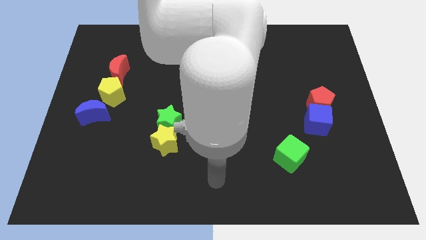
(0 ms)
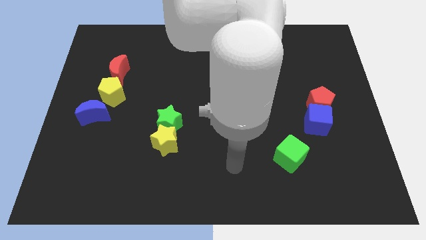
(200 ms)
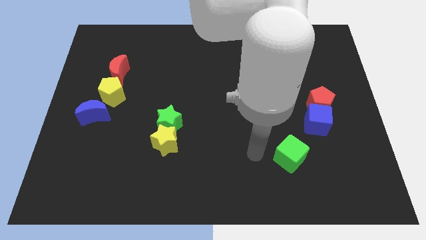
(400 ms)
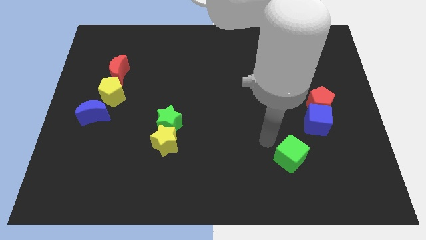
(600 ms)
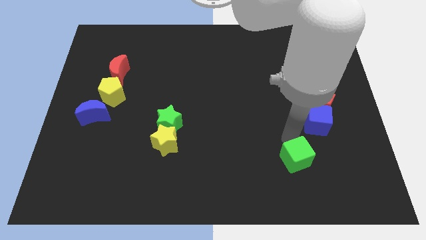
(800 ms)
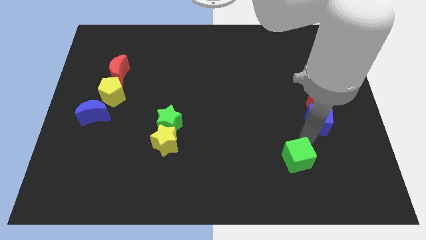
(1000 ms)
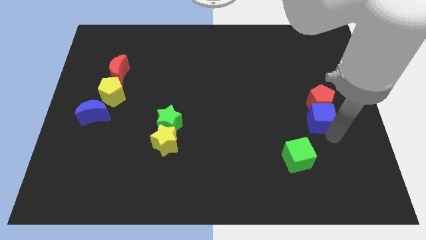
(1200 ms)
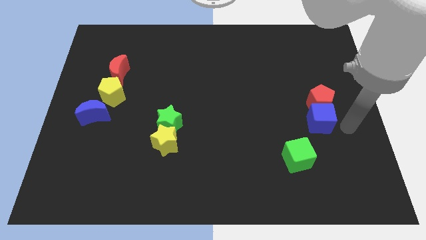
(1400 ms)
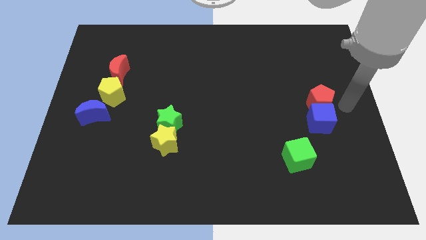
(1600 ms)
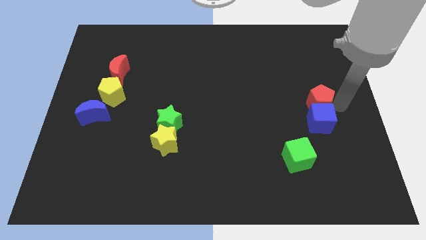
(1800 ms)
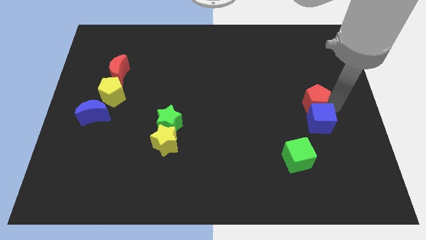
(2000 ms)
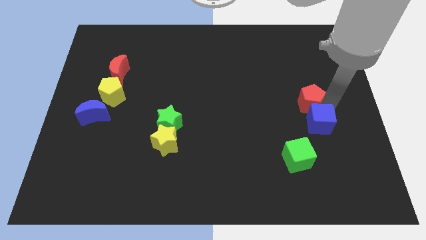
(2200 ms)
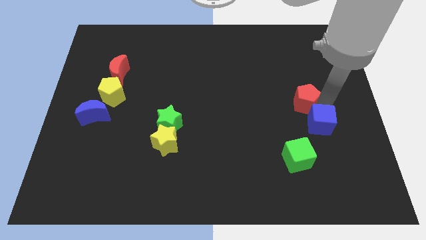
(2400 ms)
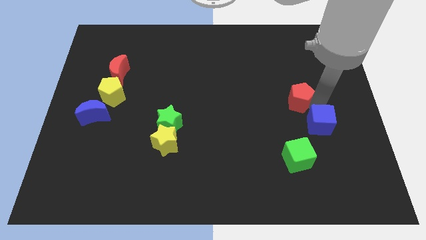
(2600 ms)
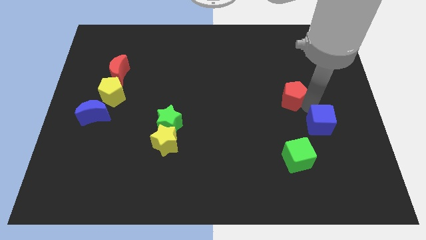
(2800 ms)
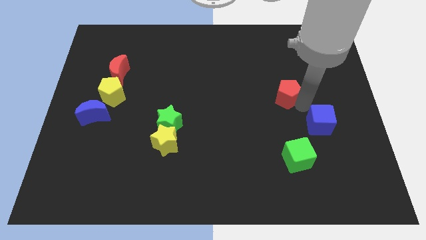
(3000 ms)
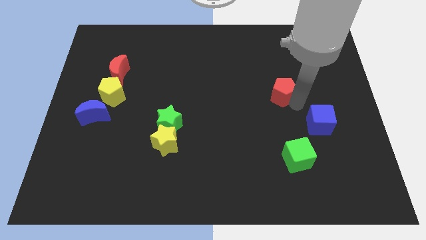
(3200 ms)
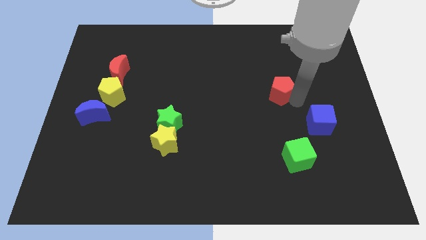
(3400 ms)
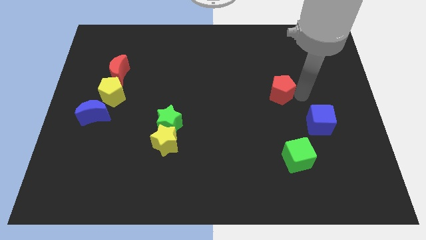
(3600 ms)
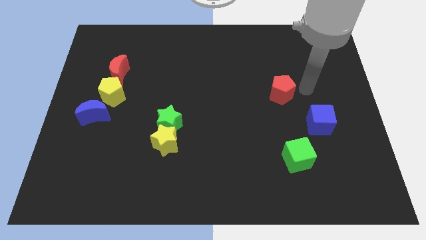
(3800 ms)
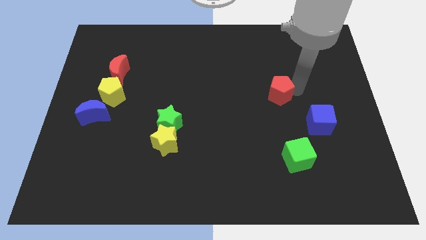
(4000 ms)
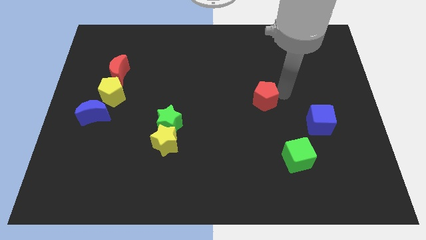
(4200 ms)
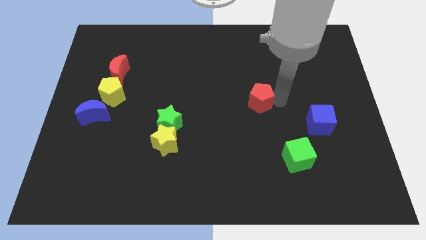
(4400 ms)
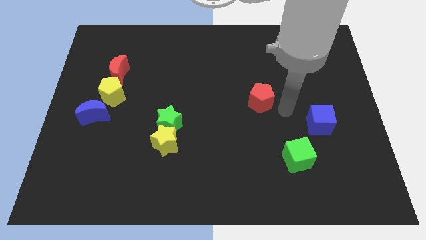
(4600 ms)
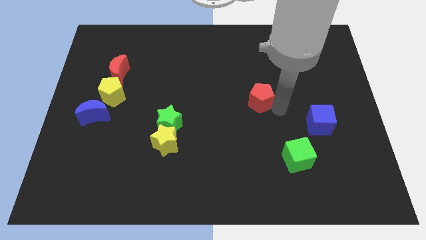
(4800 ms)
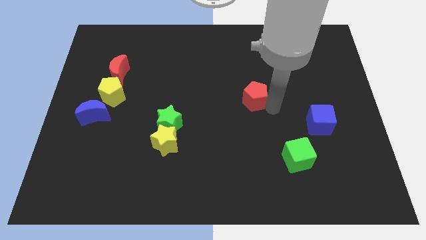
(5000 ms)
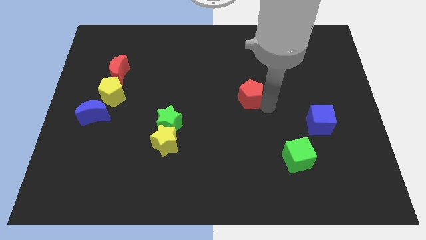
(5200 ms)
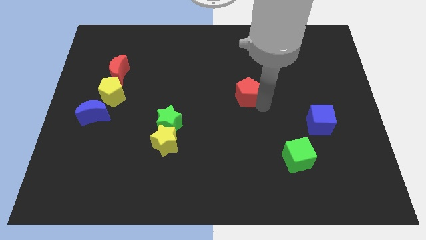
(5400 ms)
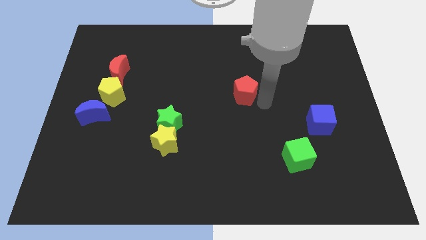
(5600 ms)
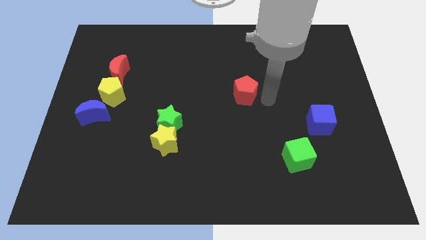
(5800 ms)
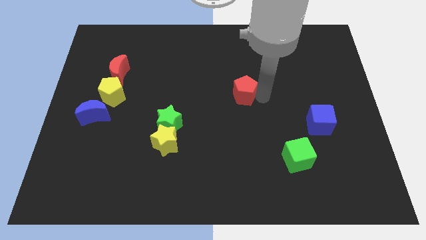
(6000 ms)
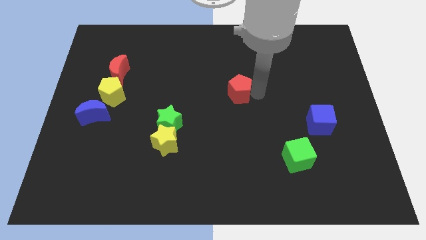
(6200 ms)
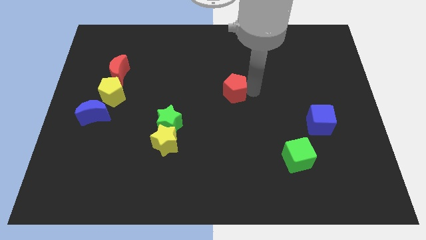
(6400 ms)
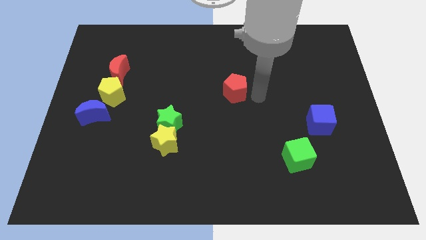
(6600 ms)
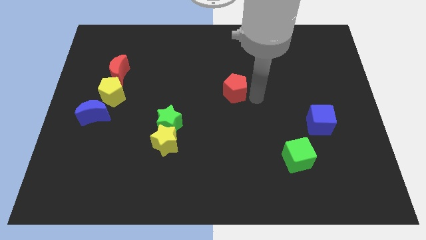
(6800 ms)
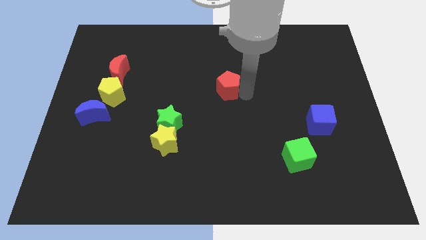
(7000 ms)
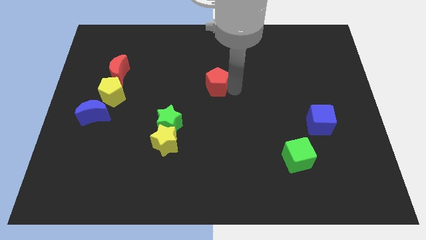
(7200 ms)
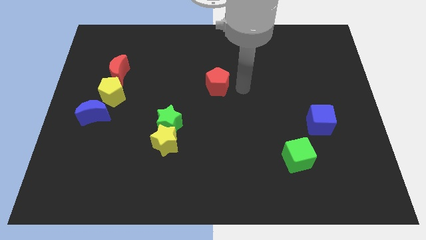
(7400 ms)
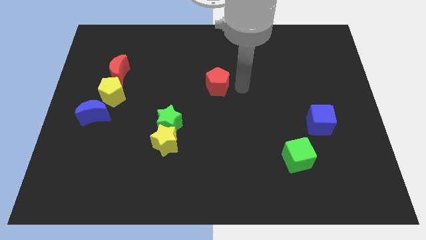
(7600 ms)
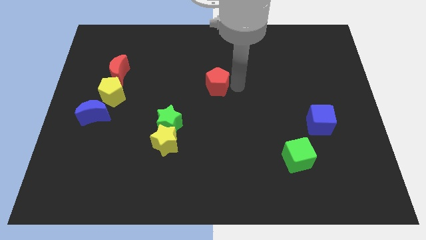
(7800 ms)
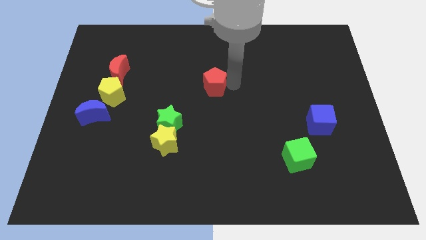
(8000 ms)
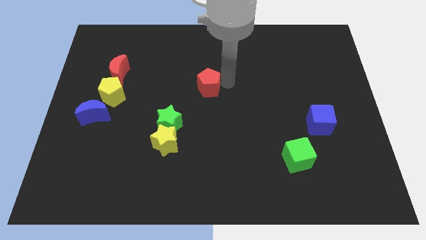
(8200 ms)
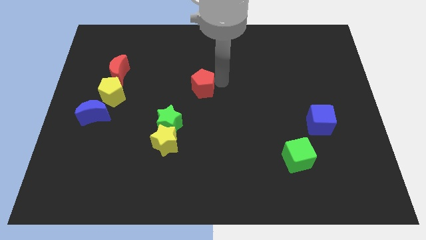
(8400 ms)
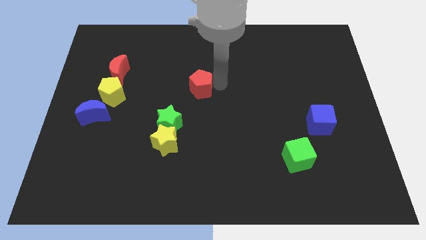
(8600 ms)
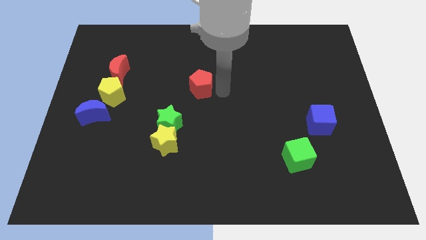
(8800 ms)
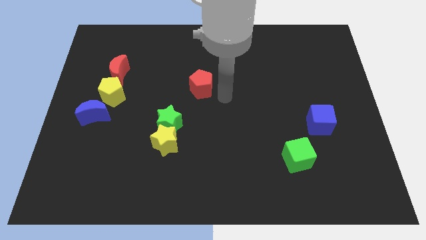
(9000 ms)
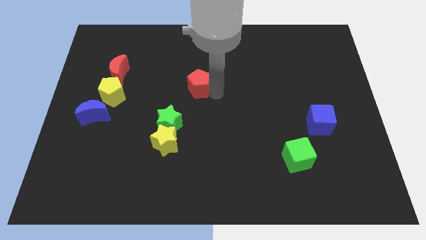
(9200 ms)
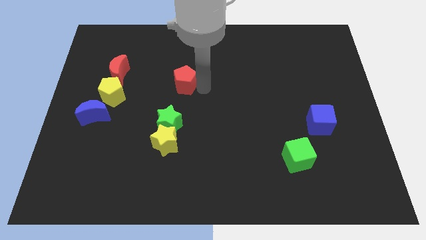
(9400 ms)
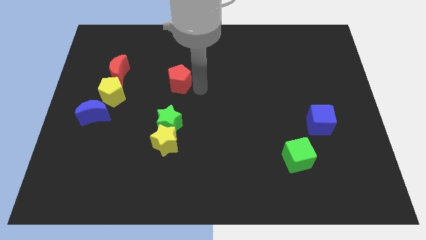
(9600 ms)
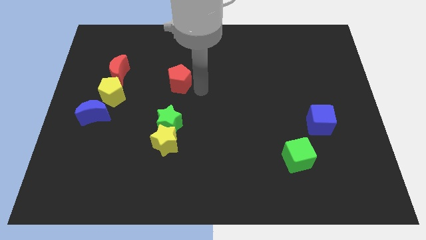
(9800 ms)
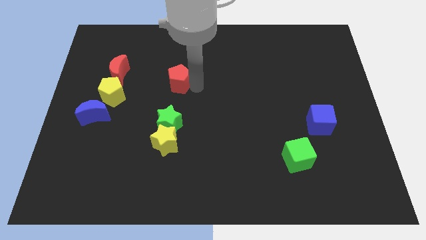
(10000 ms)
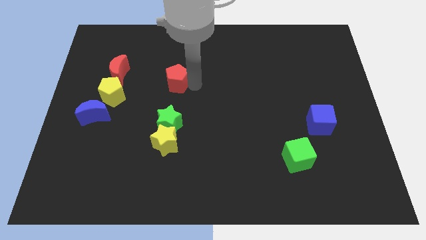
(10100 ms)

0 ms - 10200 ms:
put the red pentagon to the right side of the red moon

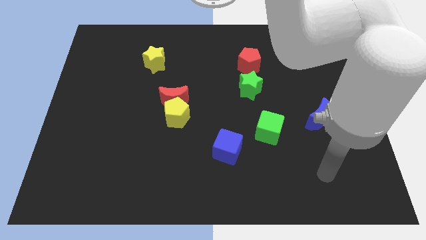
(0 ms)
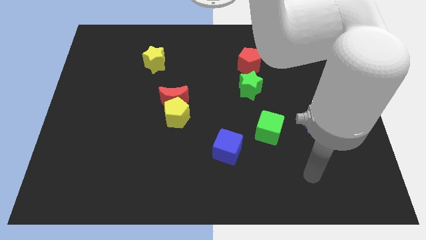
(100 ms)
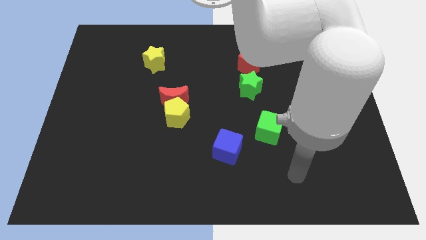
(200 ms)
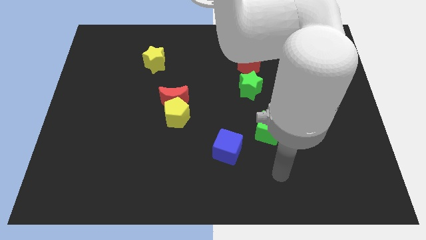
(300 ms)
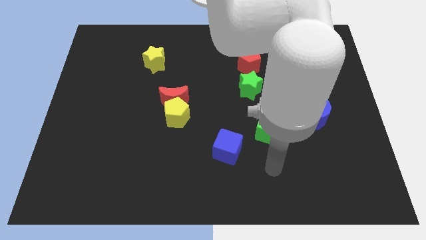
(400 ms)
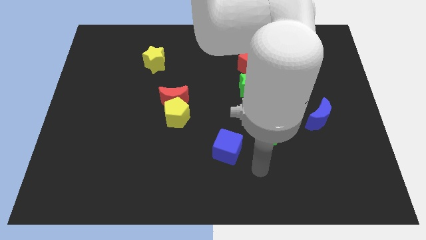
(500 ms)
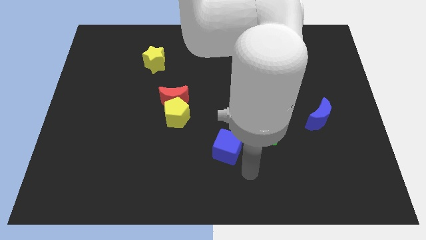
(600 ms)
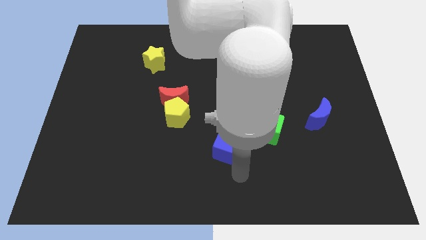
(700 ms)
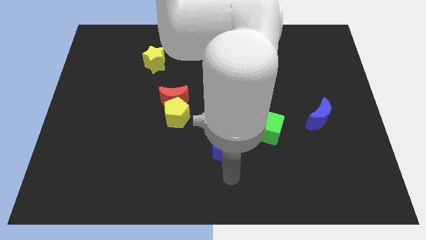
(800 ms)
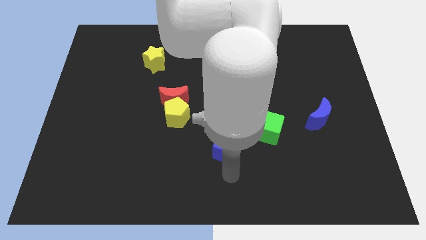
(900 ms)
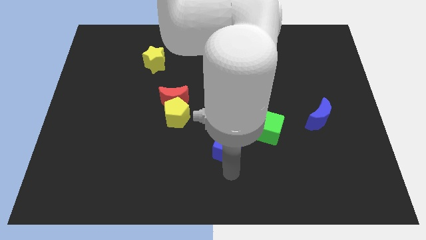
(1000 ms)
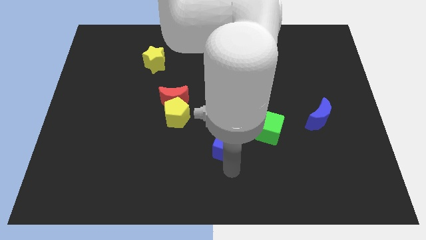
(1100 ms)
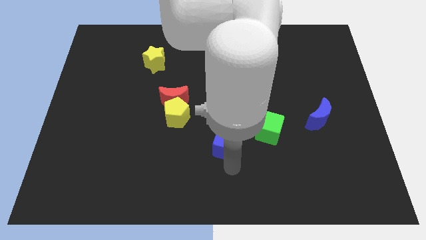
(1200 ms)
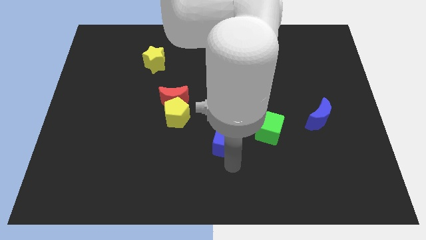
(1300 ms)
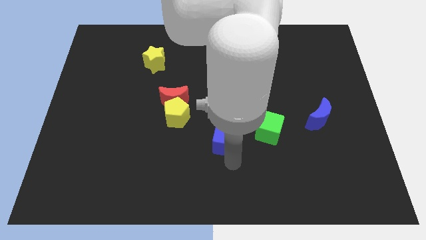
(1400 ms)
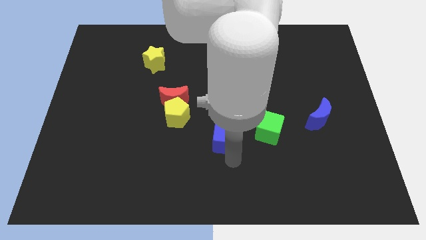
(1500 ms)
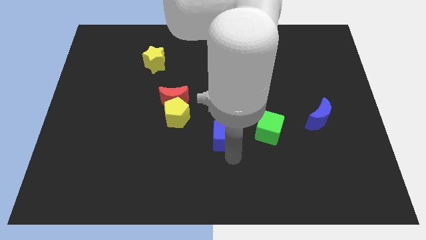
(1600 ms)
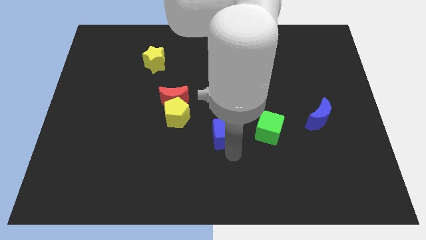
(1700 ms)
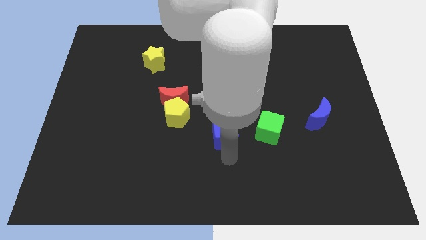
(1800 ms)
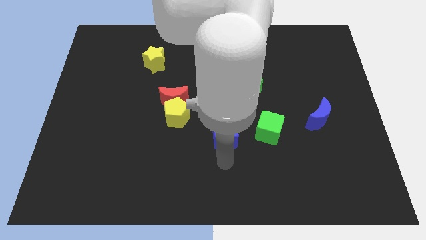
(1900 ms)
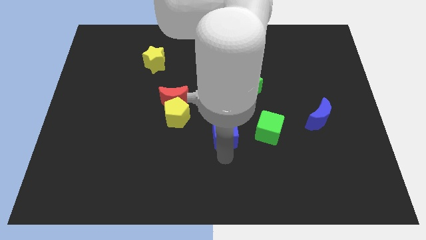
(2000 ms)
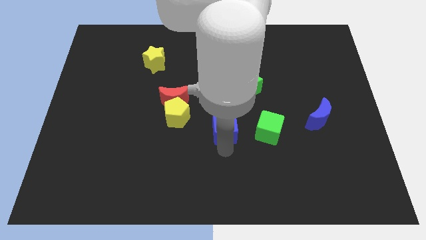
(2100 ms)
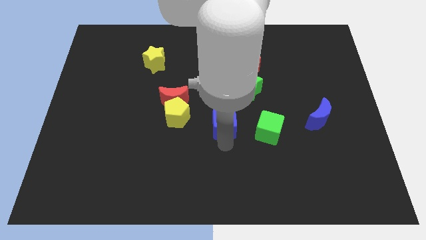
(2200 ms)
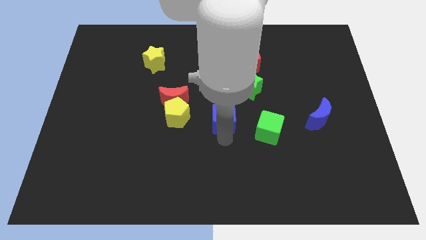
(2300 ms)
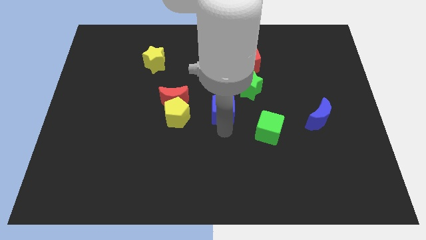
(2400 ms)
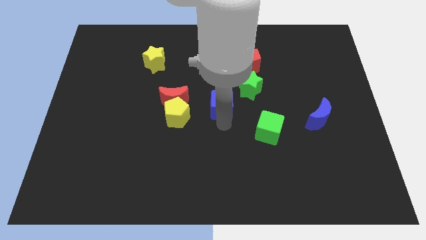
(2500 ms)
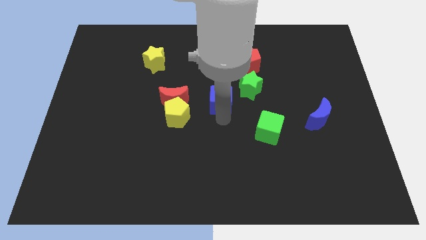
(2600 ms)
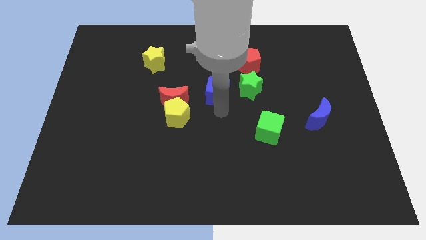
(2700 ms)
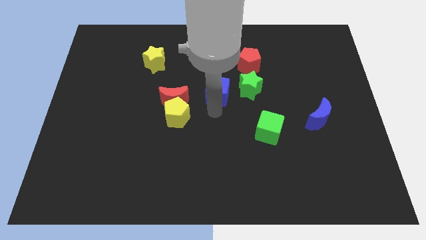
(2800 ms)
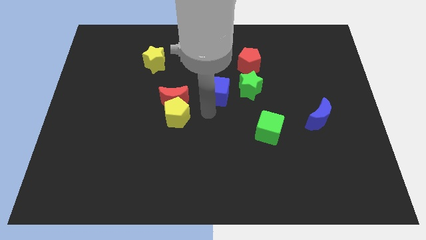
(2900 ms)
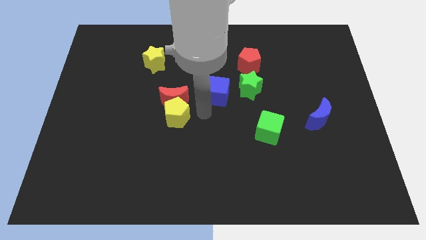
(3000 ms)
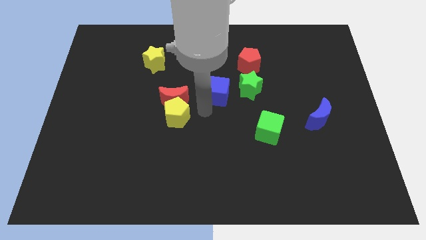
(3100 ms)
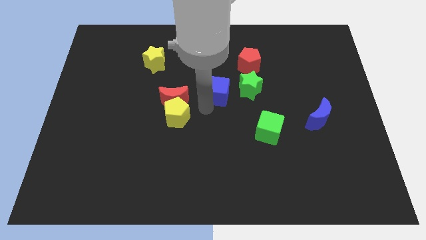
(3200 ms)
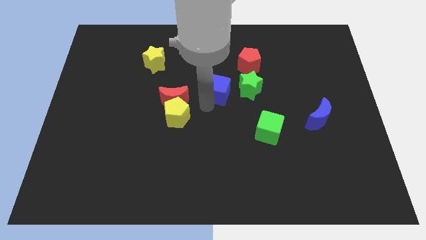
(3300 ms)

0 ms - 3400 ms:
push the blue cube to the bottom left of the red pentagon
